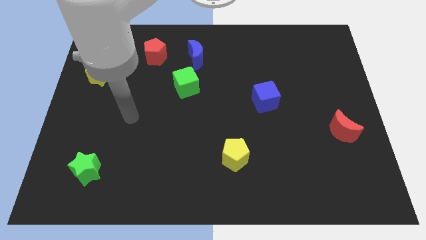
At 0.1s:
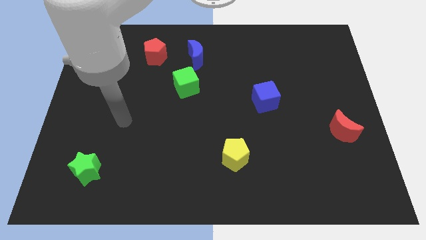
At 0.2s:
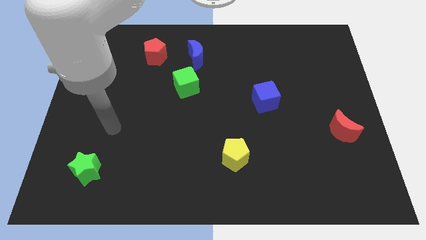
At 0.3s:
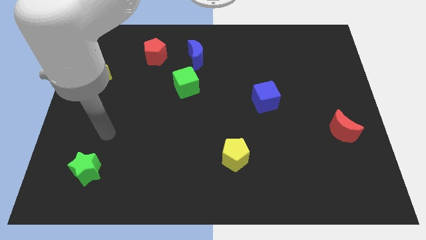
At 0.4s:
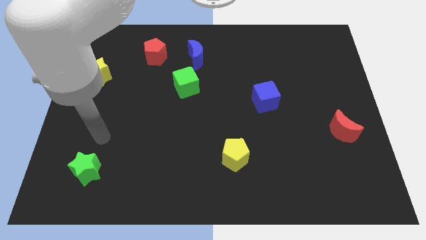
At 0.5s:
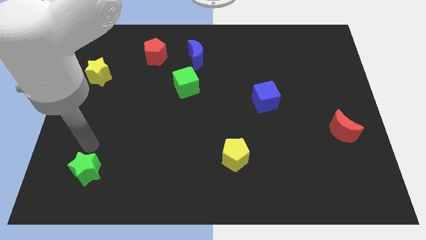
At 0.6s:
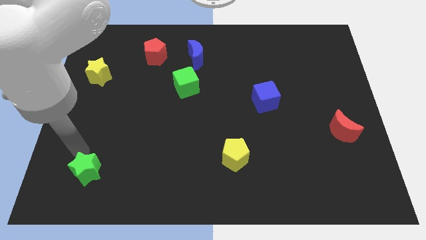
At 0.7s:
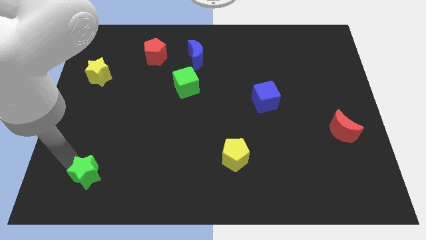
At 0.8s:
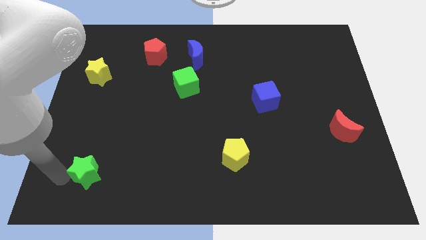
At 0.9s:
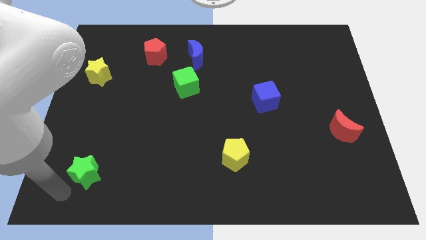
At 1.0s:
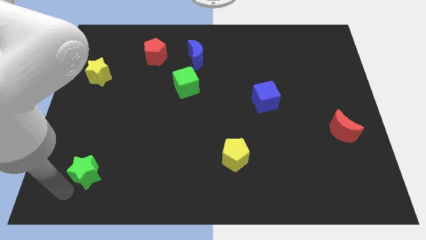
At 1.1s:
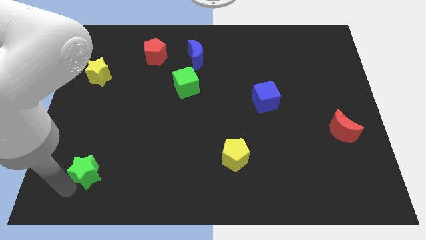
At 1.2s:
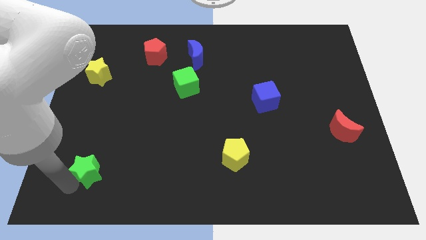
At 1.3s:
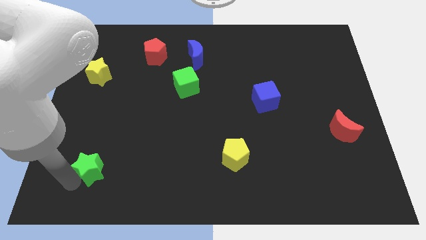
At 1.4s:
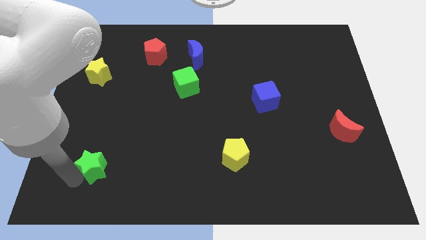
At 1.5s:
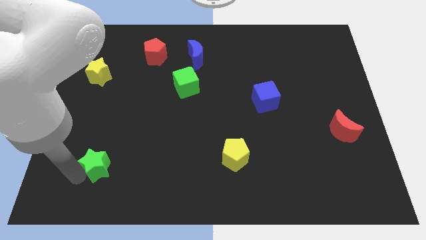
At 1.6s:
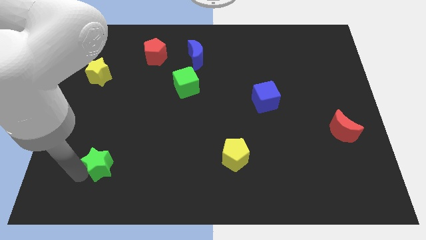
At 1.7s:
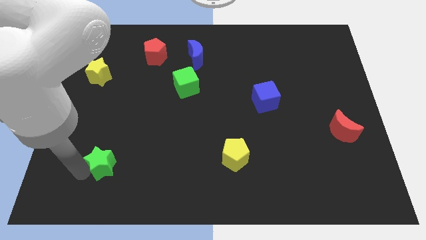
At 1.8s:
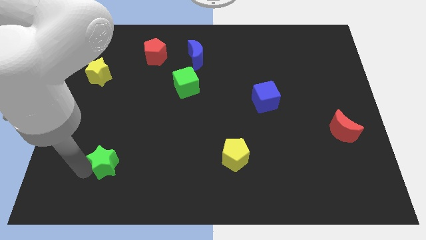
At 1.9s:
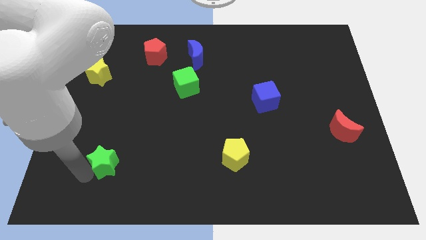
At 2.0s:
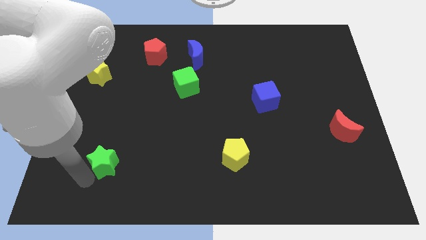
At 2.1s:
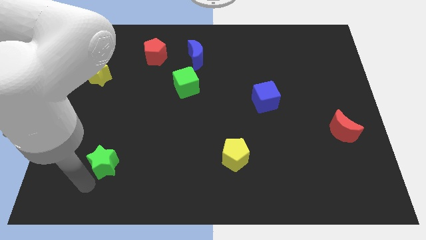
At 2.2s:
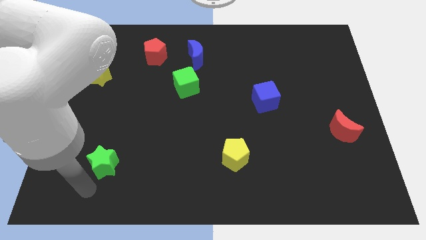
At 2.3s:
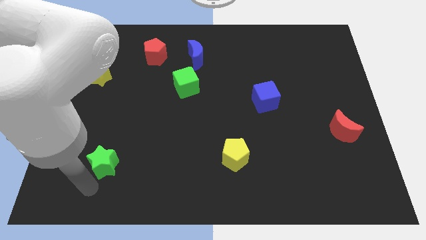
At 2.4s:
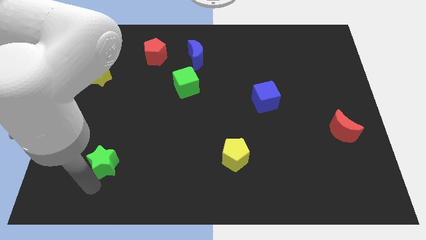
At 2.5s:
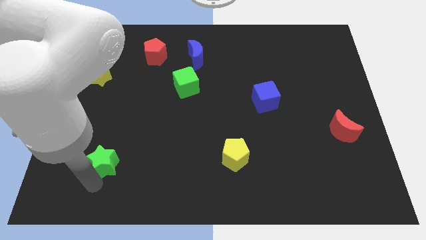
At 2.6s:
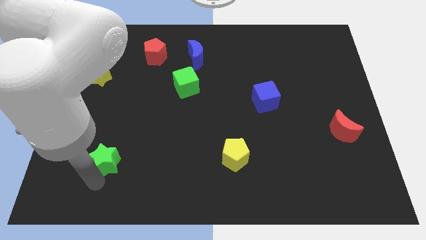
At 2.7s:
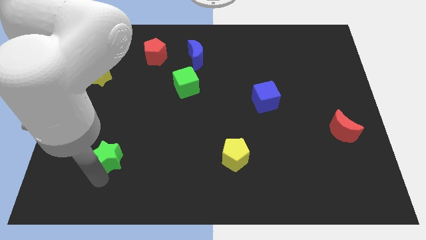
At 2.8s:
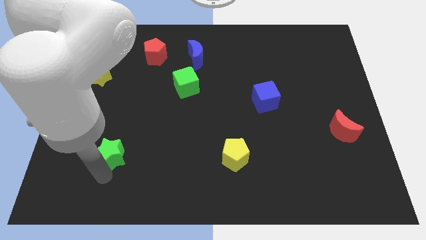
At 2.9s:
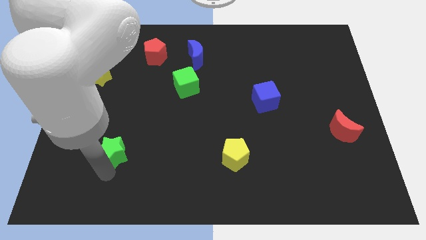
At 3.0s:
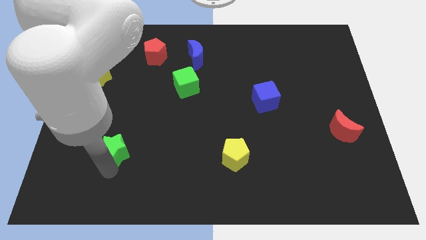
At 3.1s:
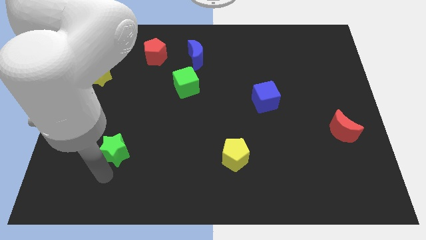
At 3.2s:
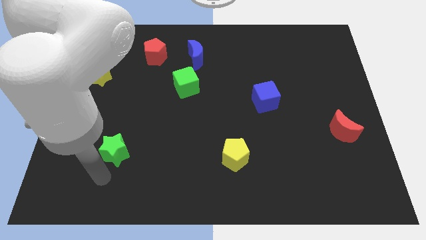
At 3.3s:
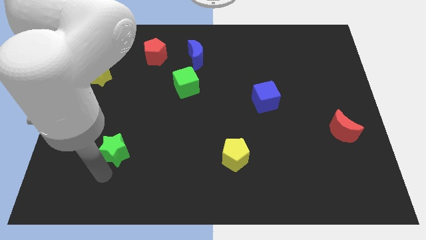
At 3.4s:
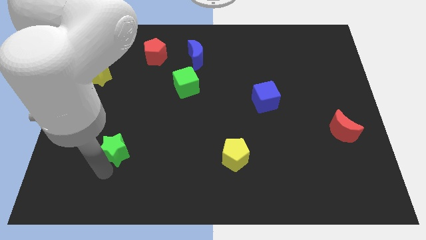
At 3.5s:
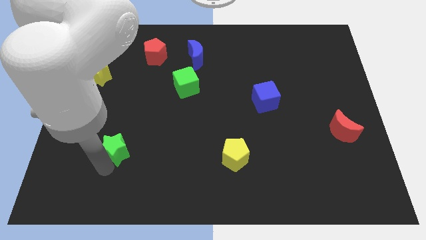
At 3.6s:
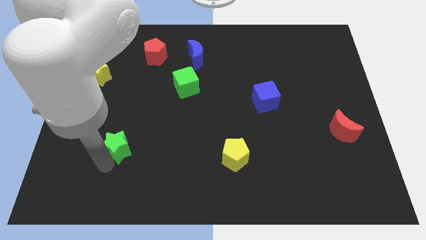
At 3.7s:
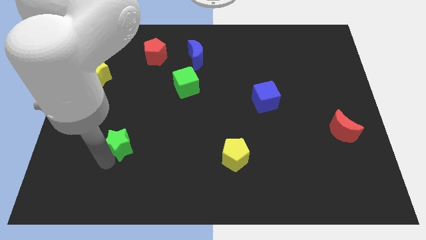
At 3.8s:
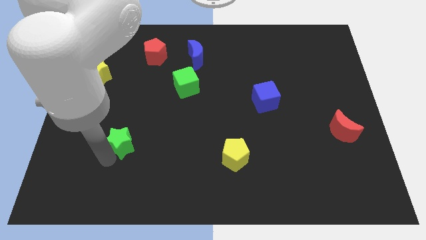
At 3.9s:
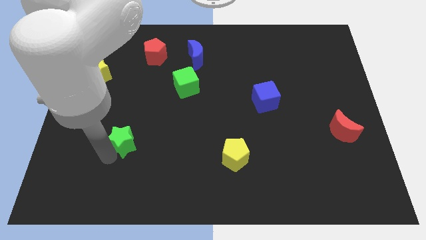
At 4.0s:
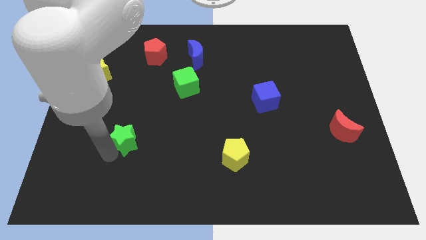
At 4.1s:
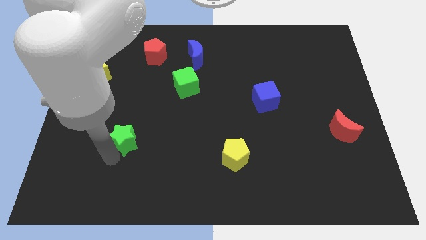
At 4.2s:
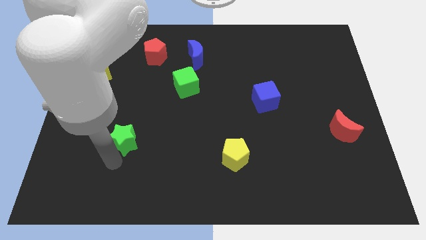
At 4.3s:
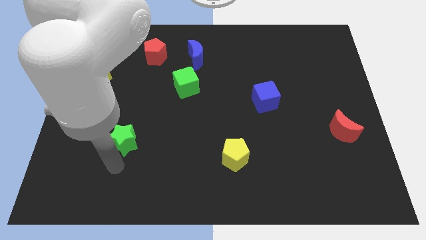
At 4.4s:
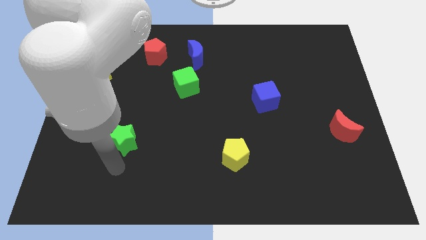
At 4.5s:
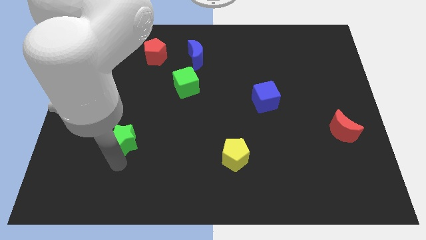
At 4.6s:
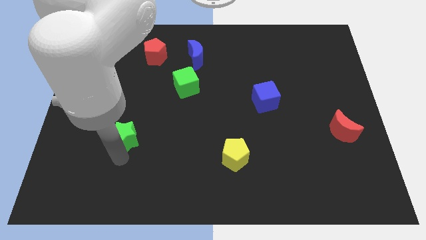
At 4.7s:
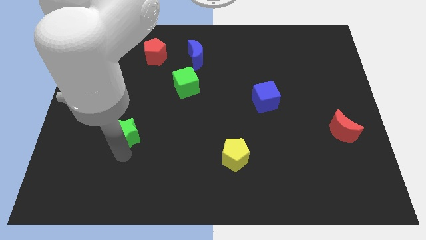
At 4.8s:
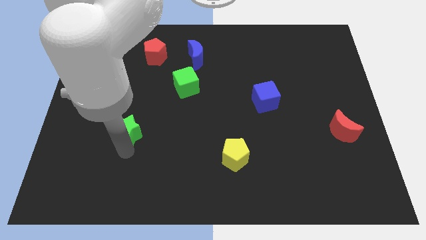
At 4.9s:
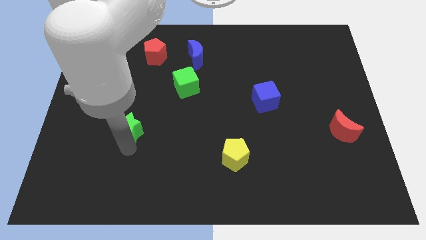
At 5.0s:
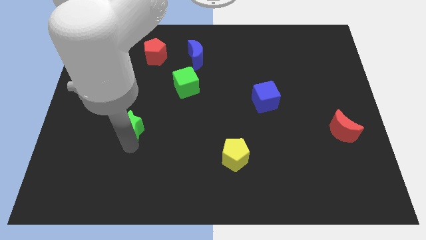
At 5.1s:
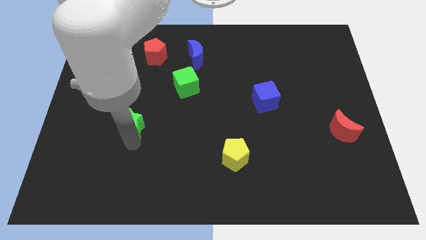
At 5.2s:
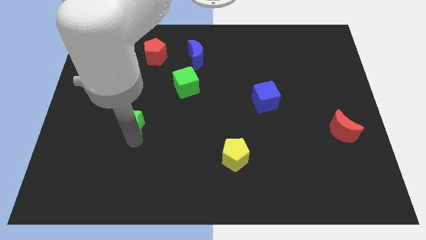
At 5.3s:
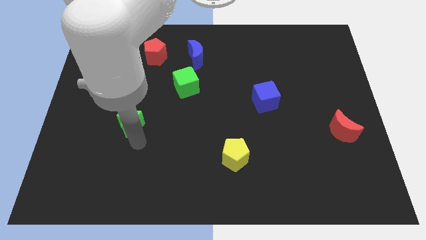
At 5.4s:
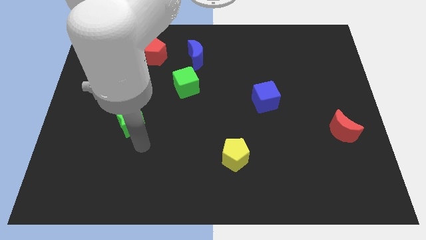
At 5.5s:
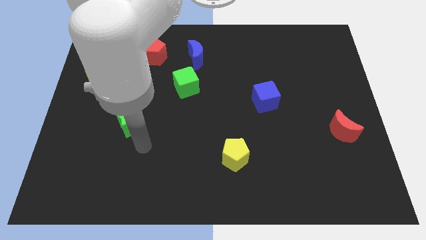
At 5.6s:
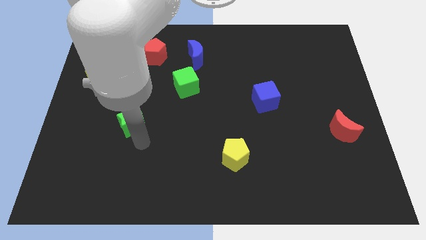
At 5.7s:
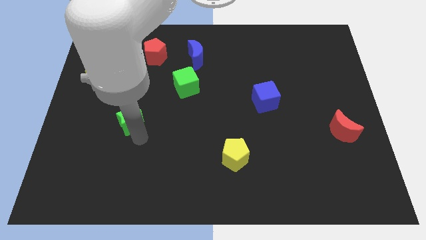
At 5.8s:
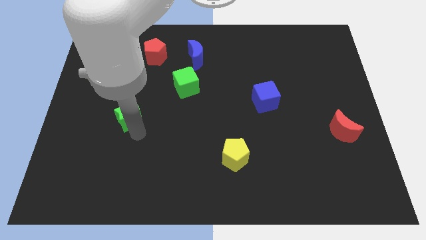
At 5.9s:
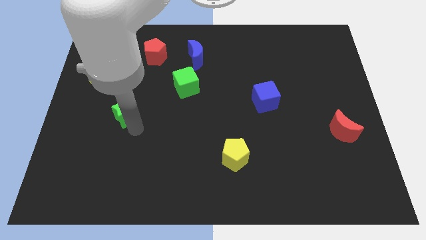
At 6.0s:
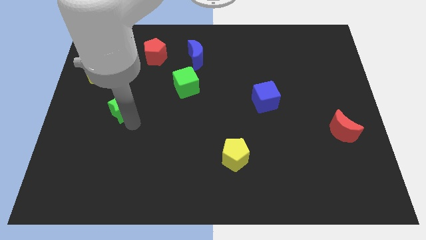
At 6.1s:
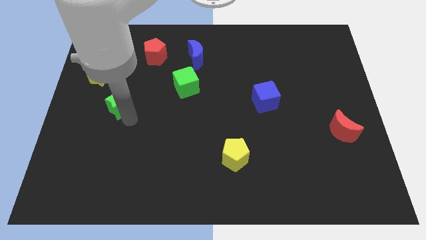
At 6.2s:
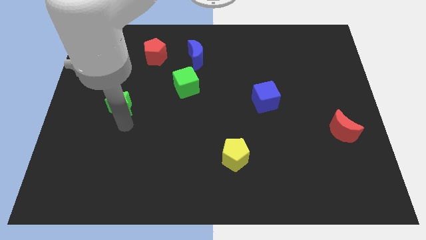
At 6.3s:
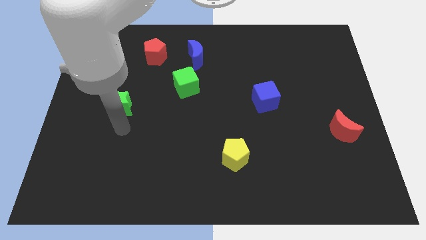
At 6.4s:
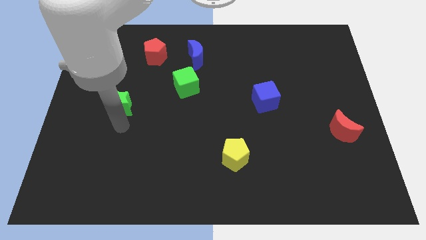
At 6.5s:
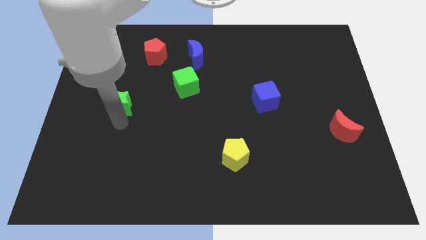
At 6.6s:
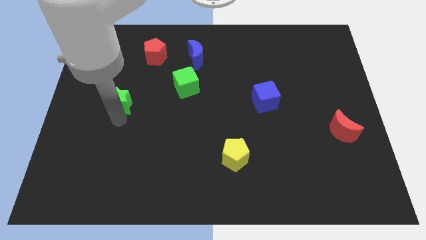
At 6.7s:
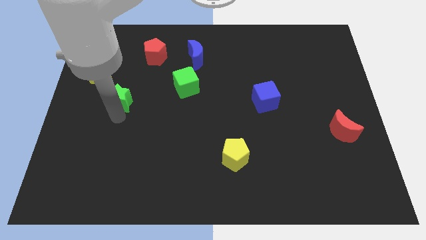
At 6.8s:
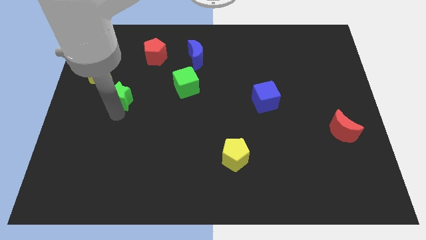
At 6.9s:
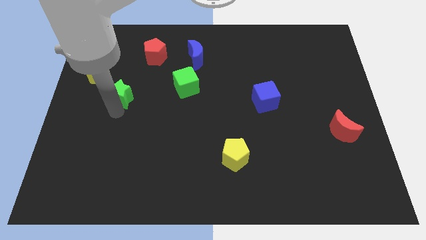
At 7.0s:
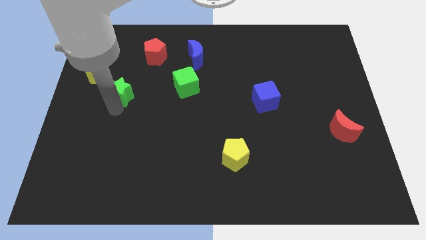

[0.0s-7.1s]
move the green star up

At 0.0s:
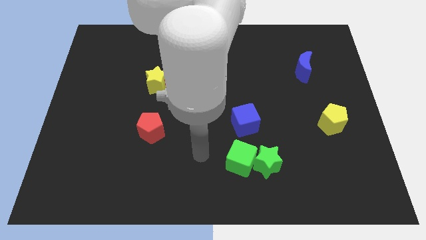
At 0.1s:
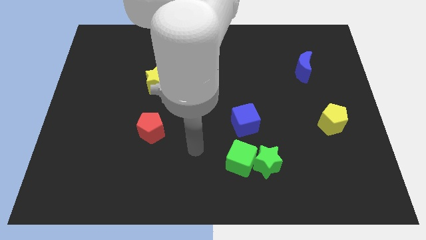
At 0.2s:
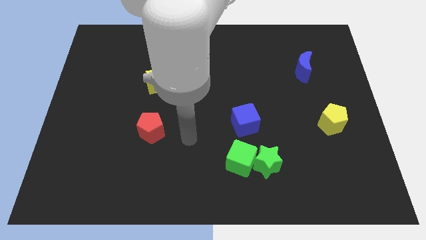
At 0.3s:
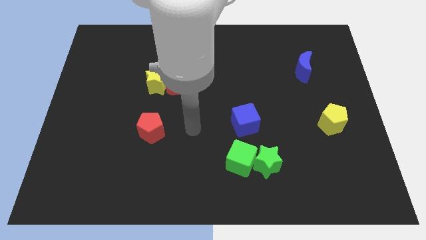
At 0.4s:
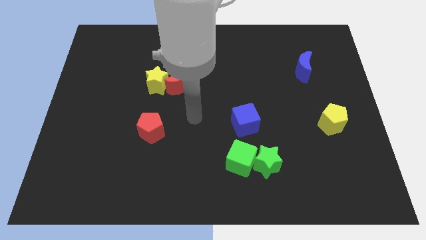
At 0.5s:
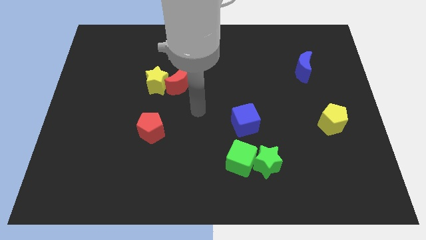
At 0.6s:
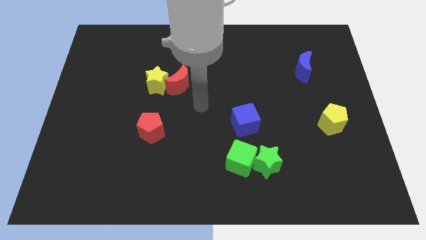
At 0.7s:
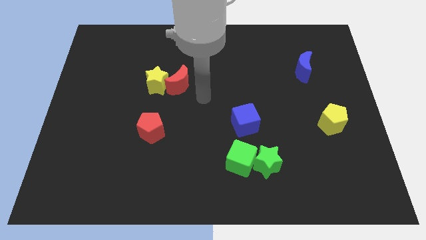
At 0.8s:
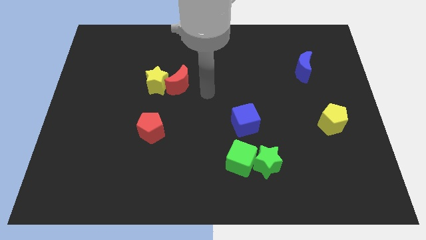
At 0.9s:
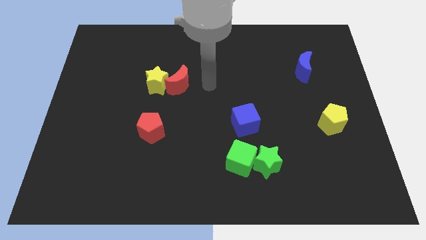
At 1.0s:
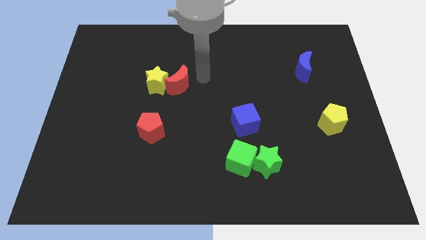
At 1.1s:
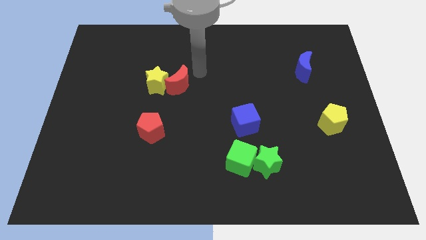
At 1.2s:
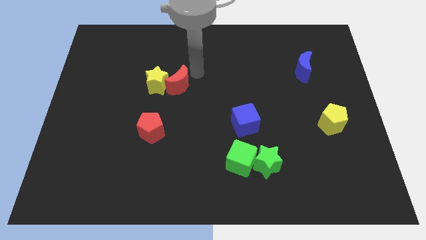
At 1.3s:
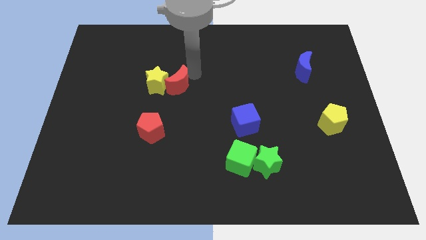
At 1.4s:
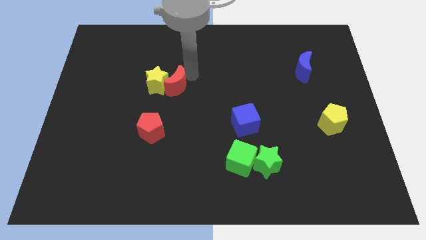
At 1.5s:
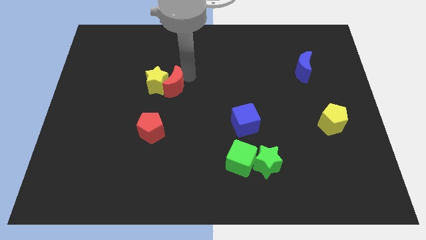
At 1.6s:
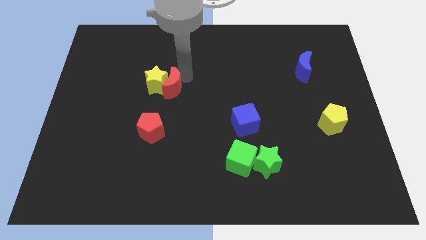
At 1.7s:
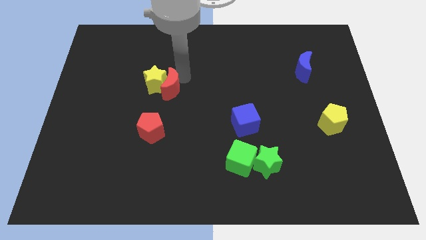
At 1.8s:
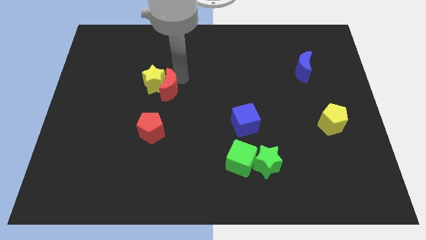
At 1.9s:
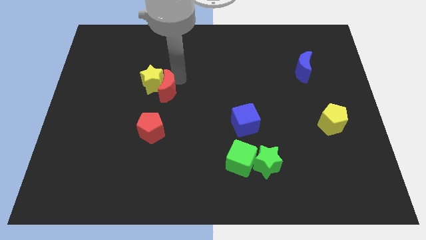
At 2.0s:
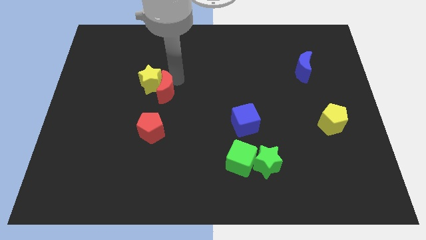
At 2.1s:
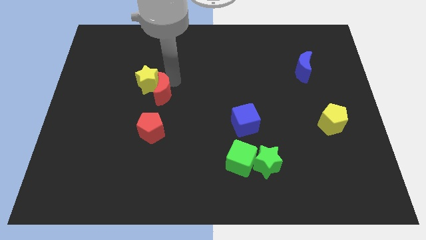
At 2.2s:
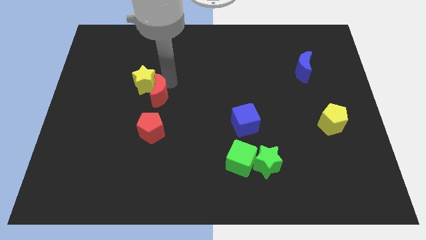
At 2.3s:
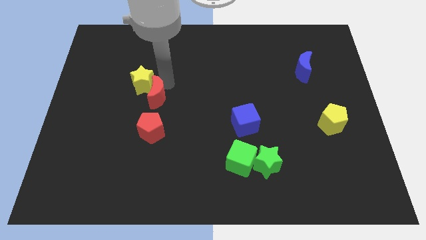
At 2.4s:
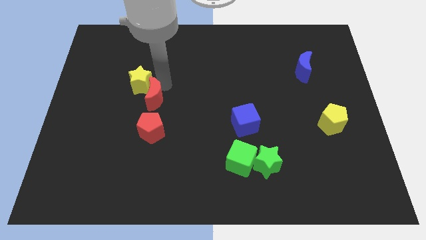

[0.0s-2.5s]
slide the red moon down and left a little bit
